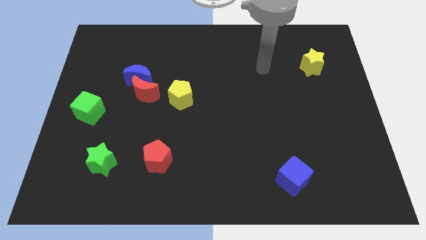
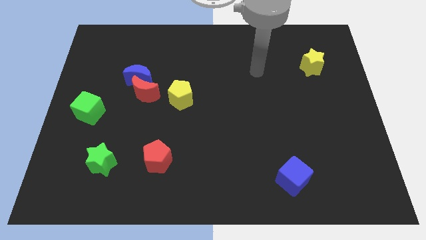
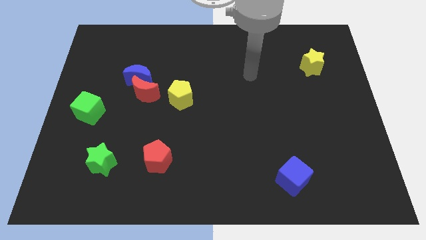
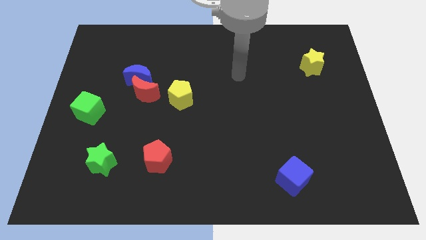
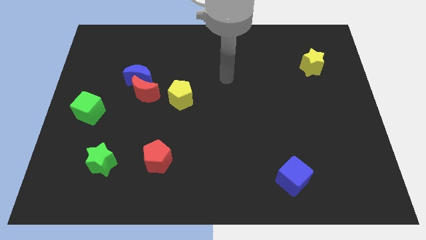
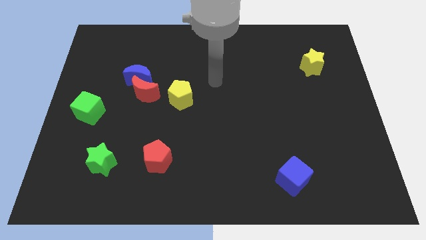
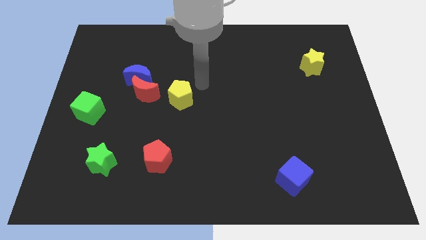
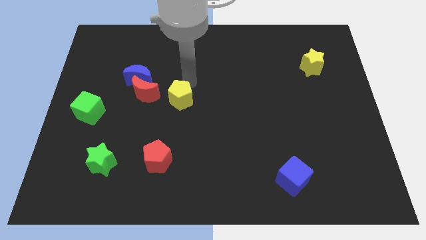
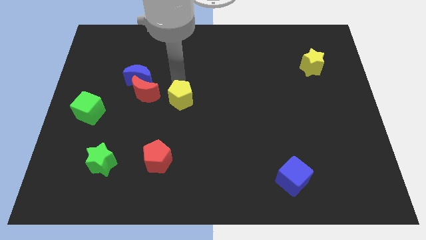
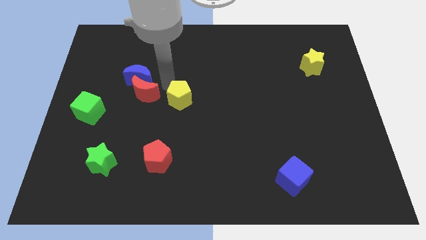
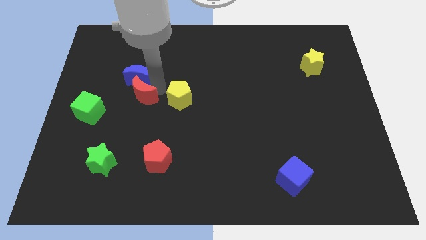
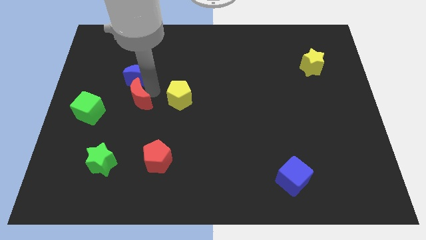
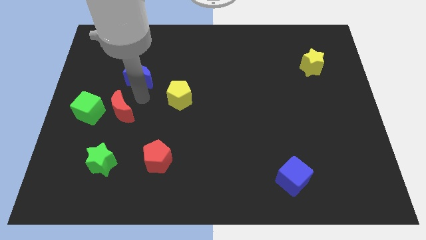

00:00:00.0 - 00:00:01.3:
move the blue moon away from the red moon

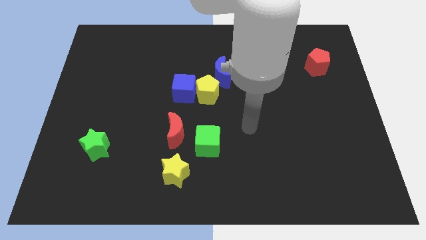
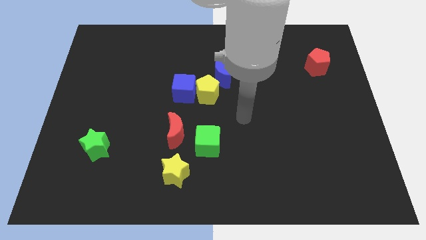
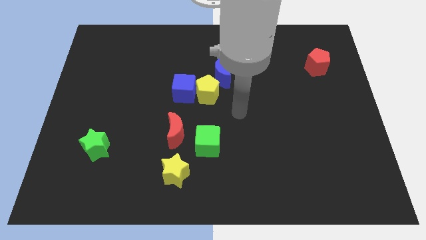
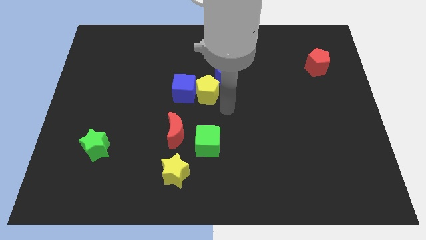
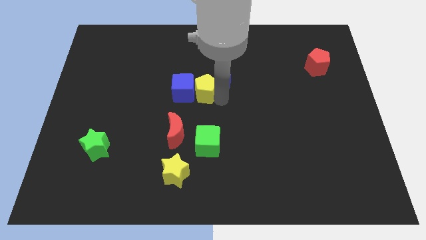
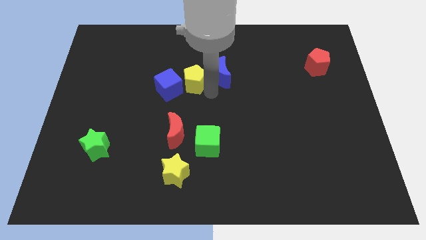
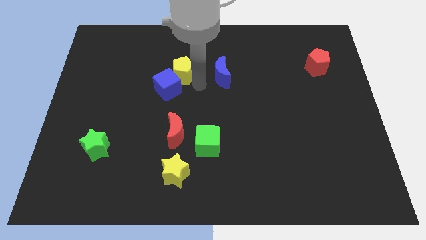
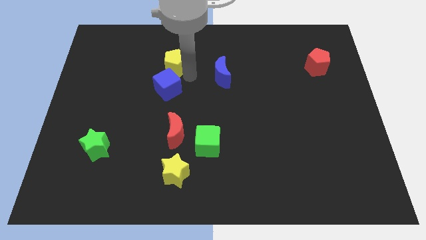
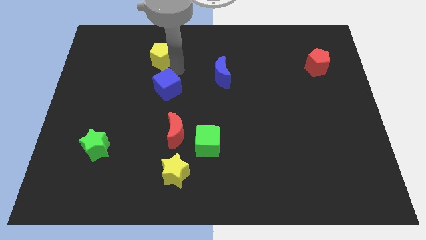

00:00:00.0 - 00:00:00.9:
pull the blue cube apart from the yellow pentagon

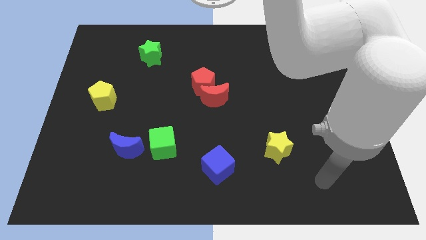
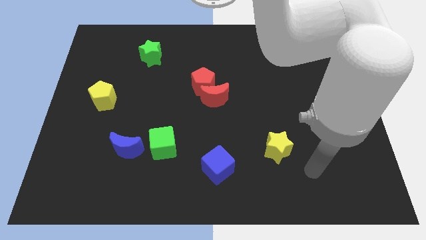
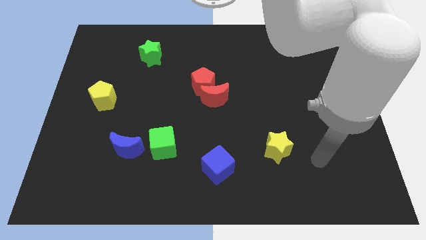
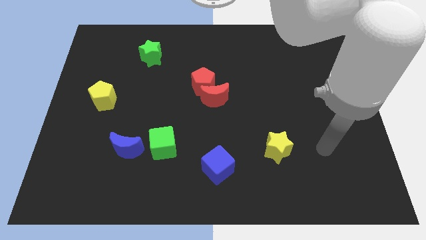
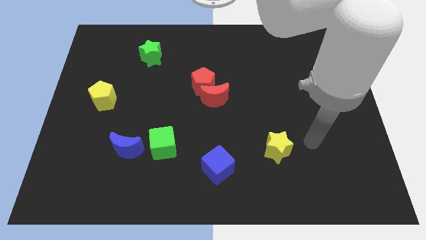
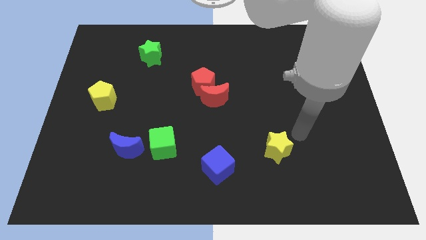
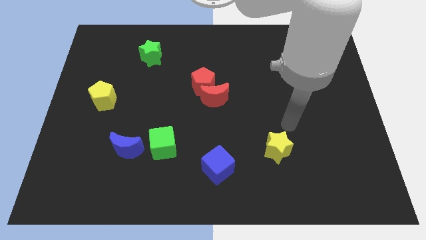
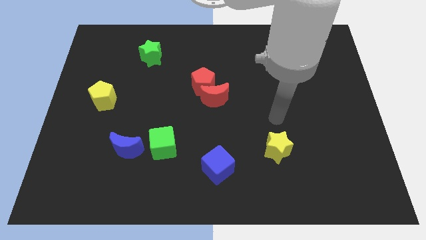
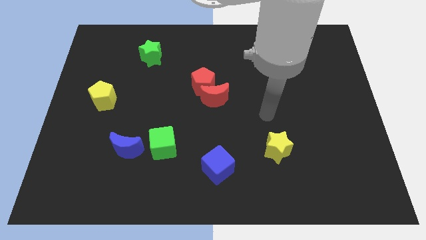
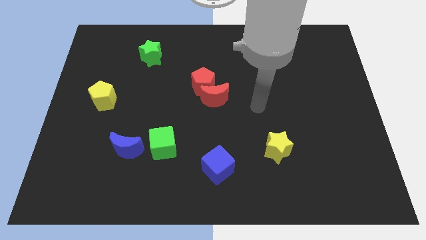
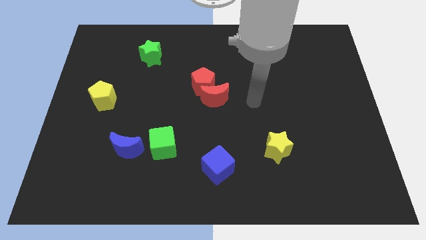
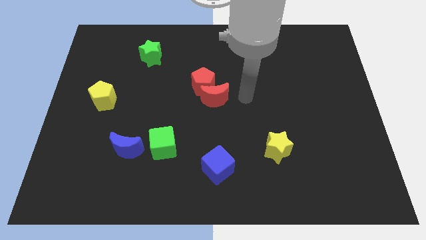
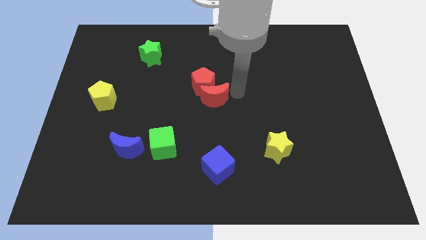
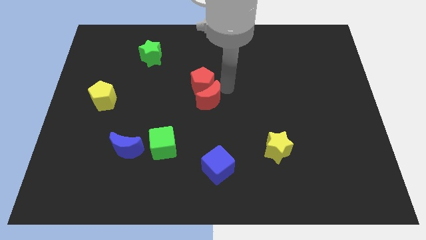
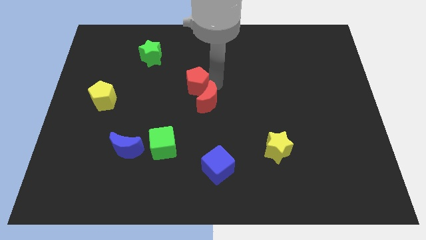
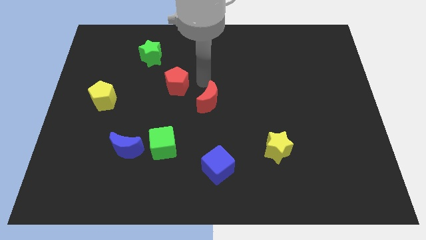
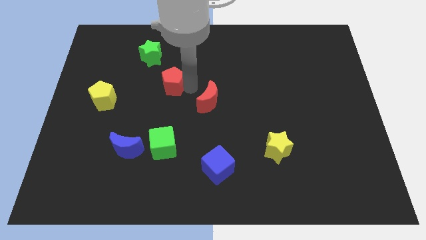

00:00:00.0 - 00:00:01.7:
separate the red moon from the red pentagon

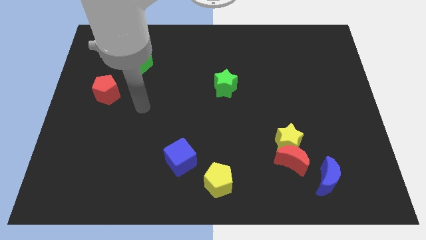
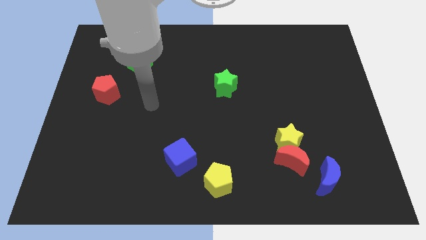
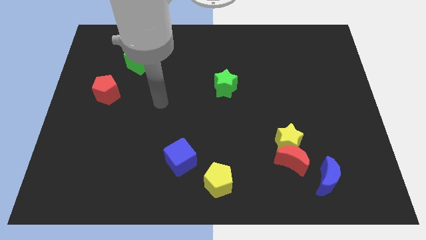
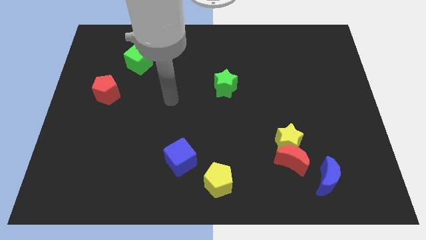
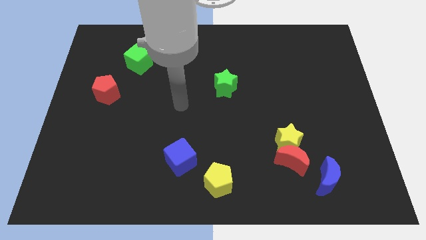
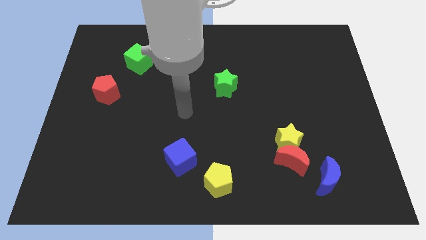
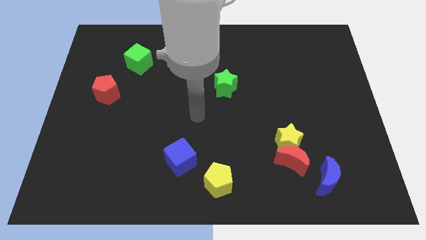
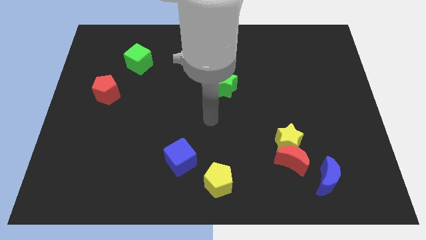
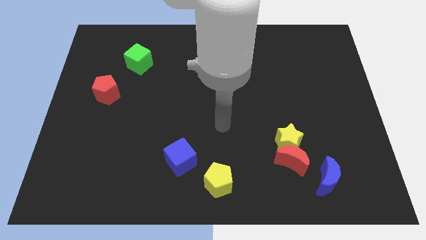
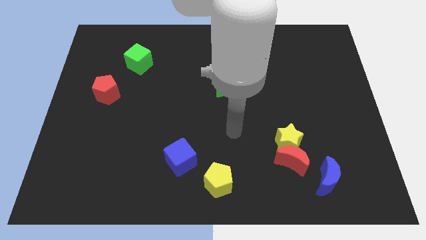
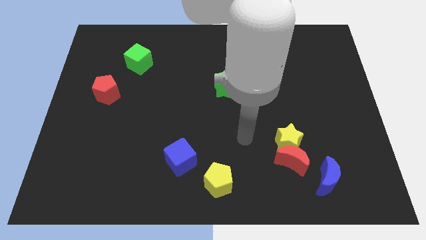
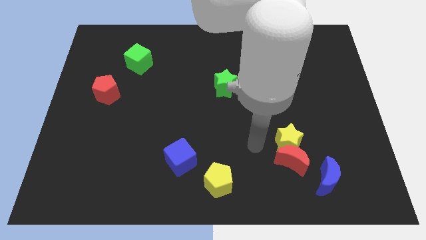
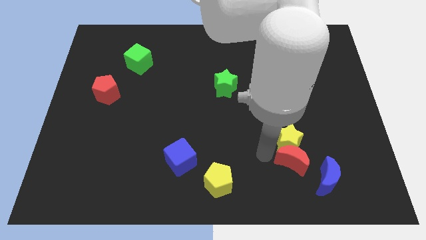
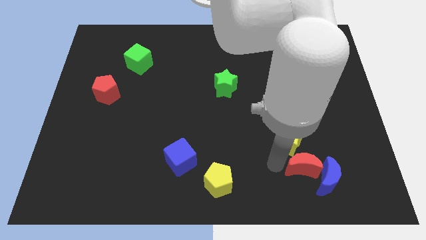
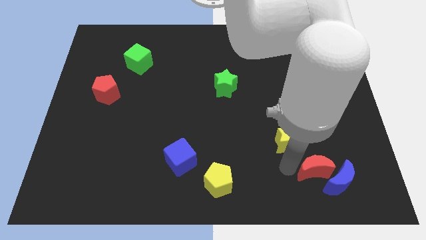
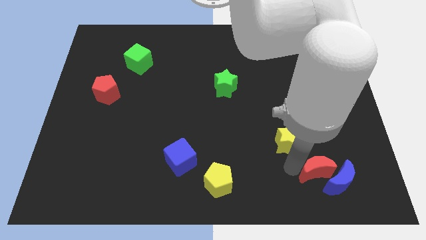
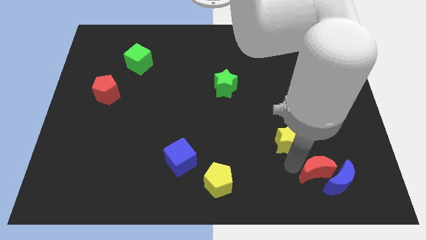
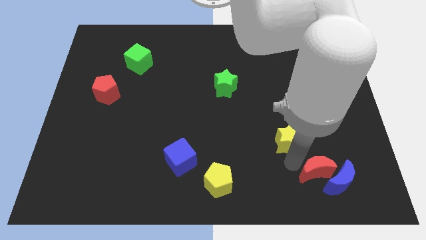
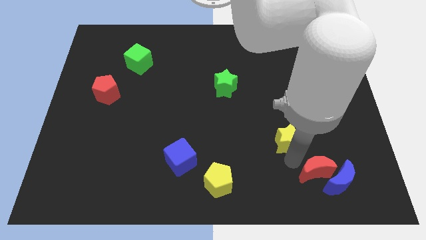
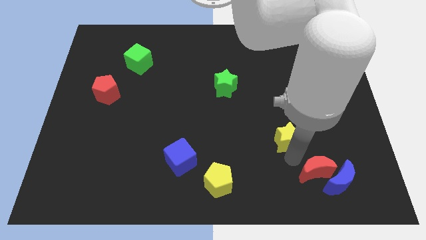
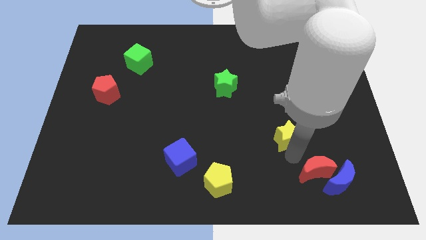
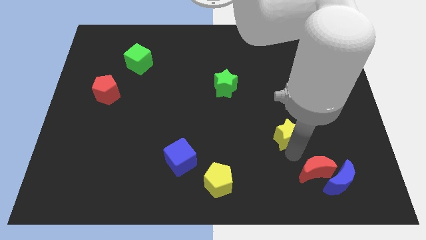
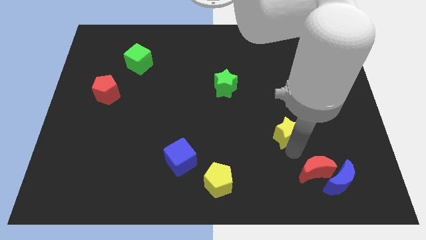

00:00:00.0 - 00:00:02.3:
pull the yellow star apart from the red moon

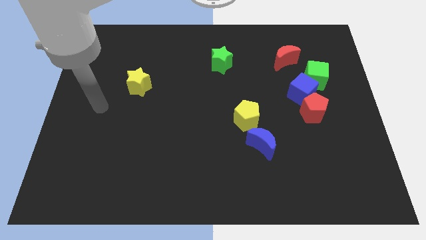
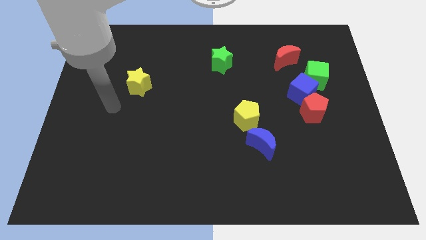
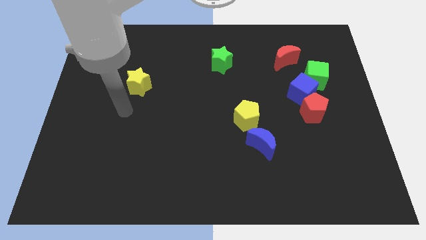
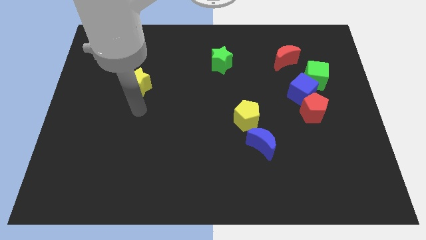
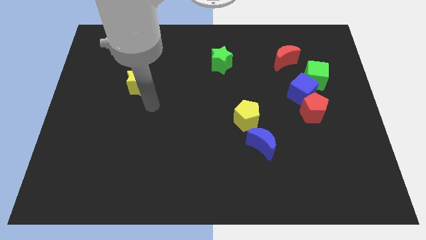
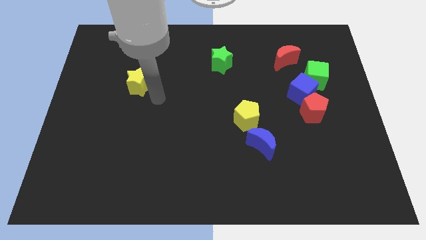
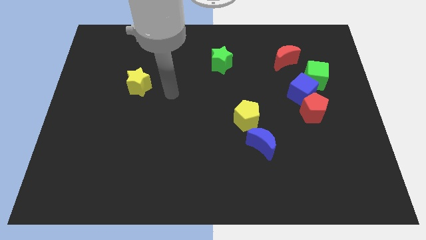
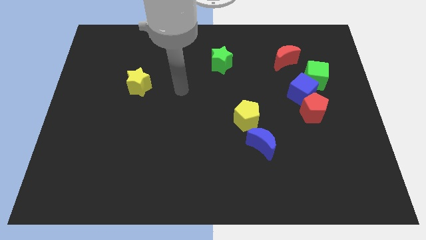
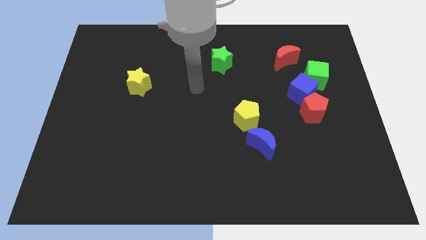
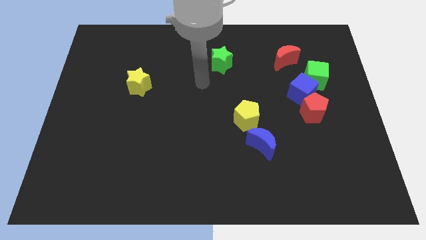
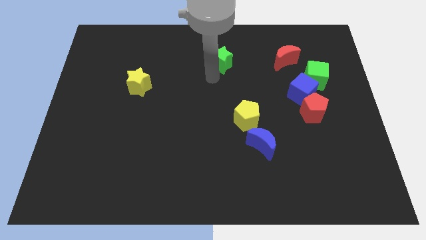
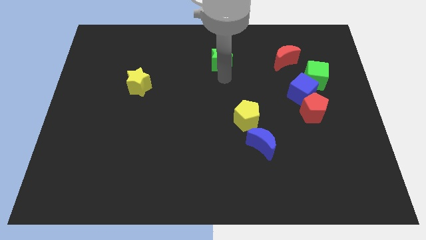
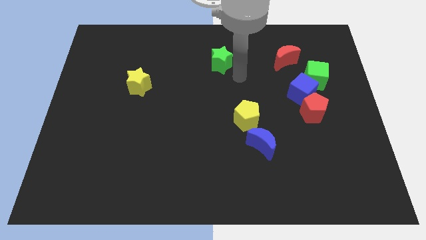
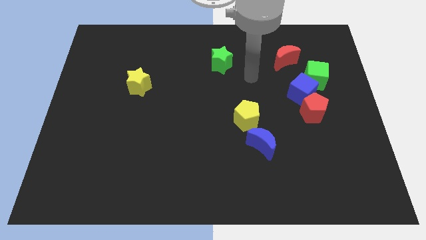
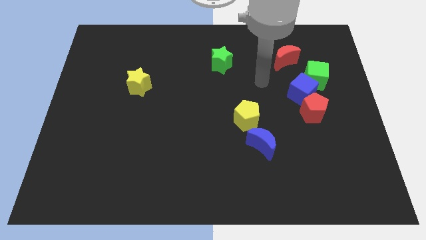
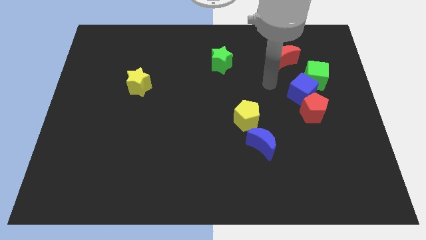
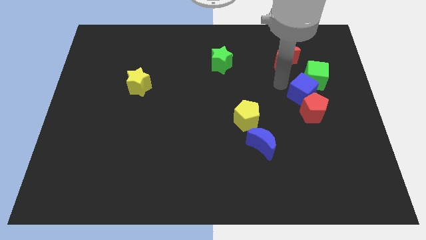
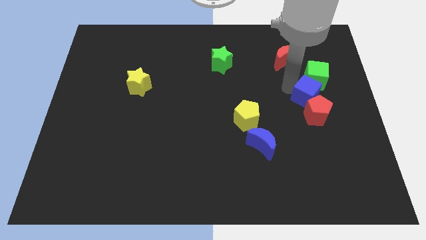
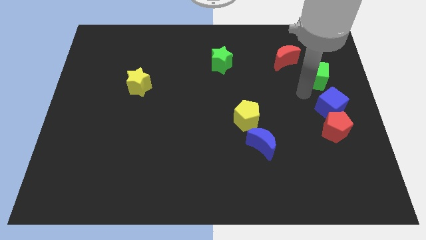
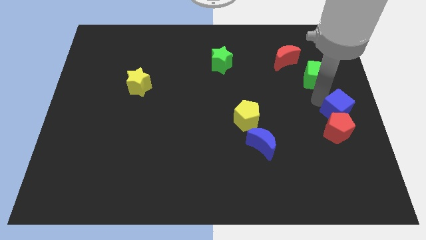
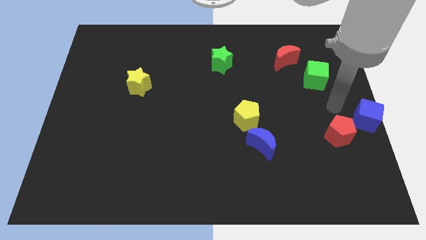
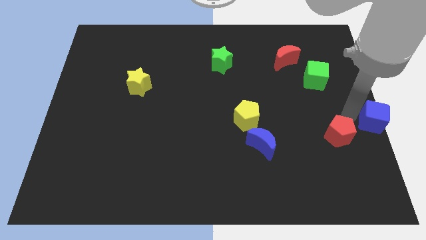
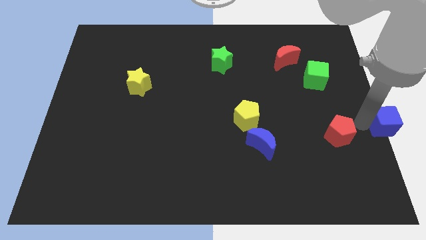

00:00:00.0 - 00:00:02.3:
pull the red pentagon apart from the blue cube

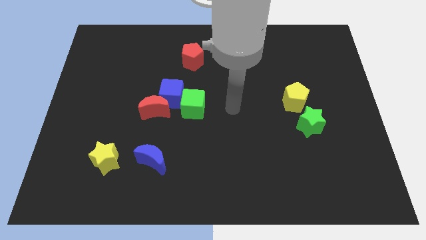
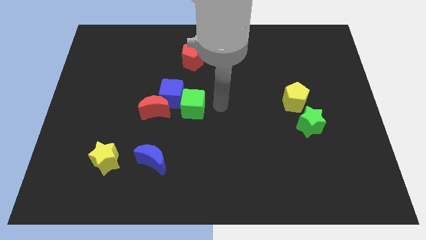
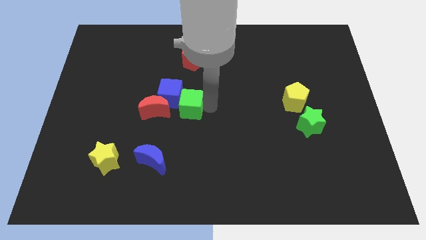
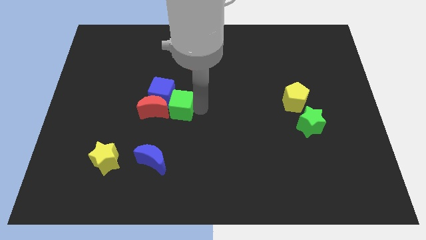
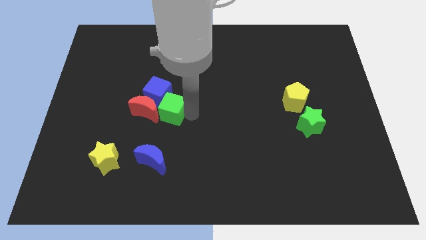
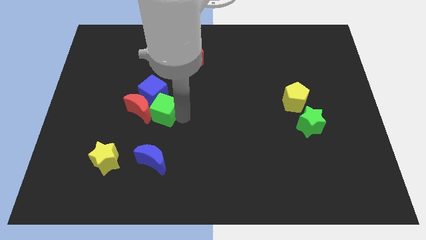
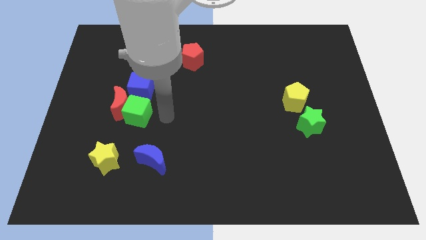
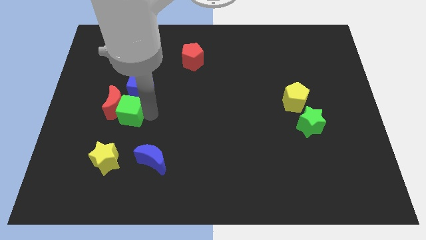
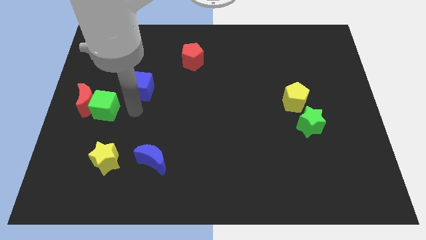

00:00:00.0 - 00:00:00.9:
move the blue cube away from the red moon and green cube
